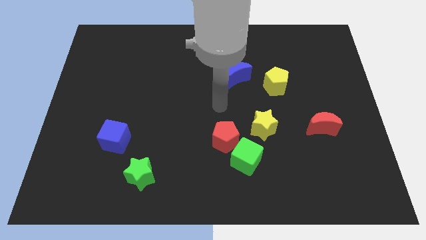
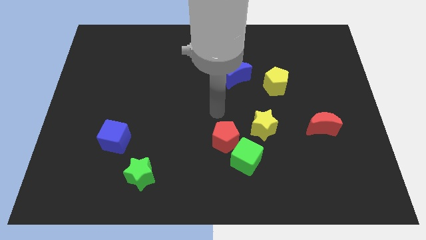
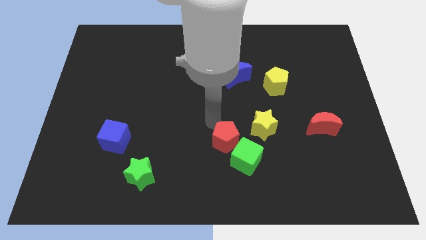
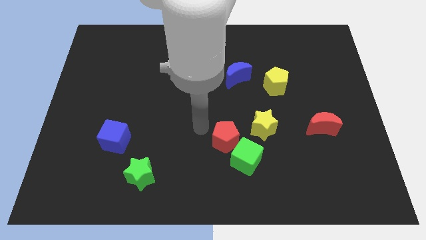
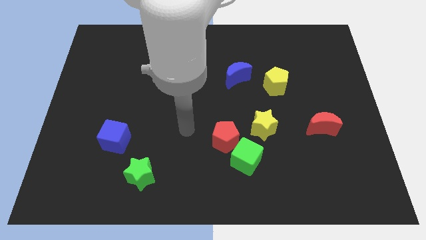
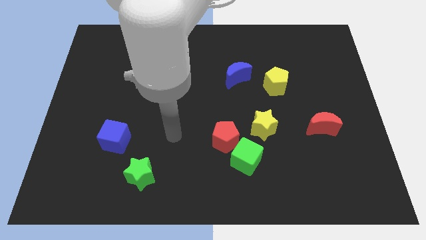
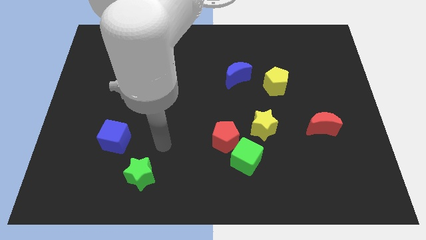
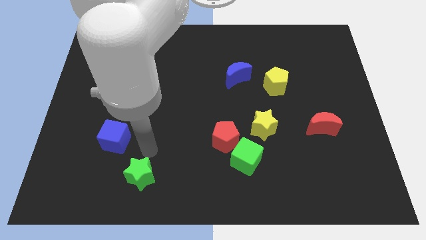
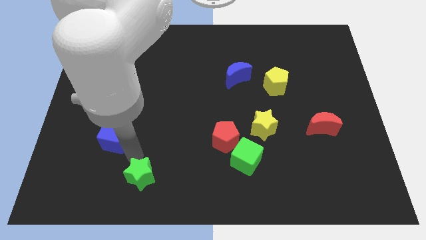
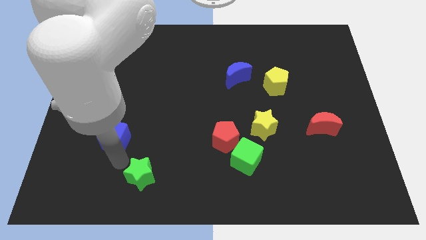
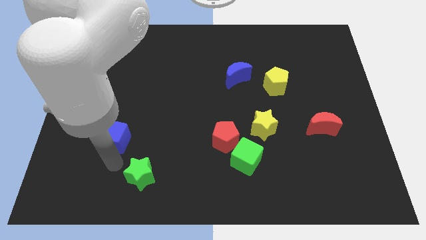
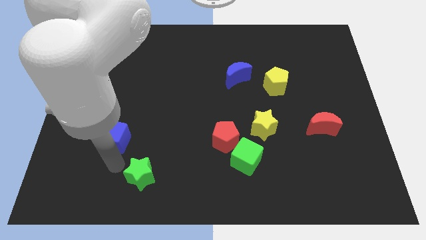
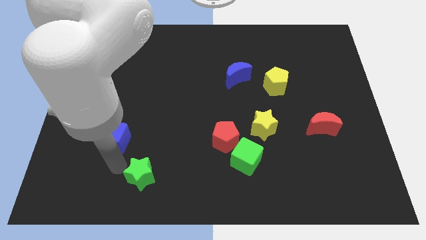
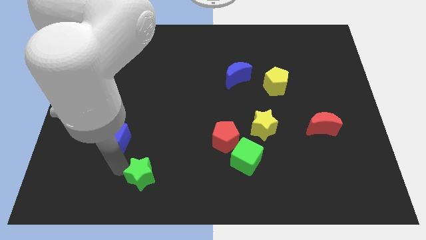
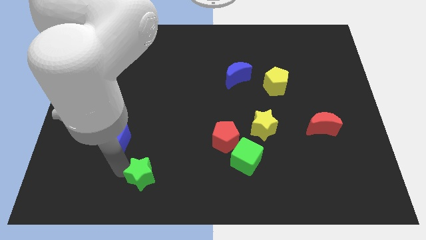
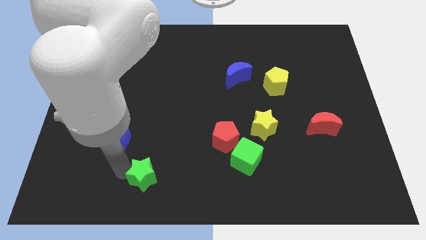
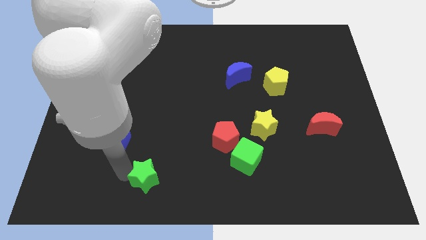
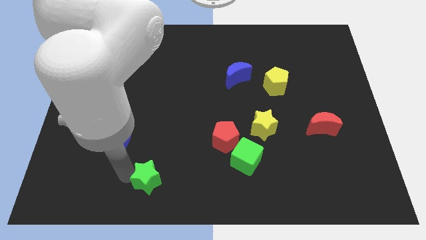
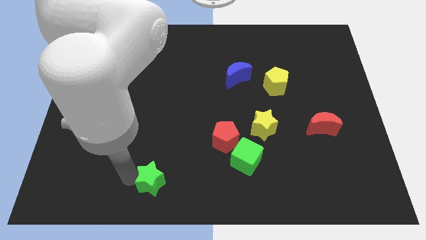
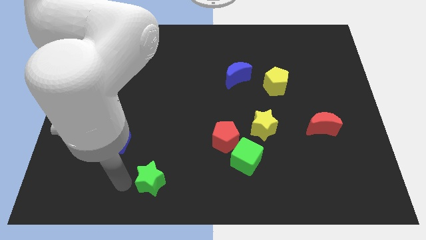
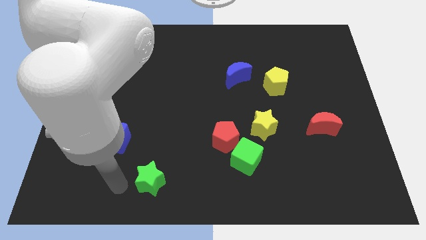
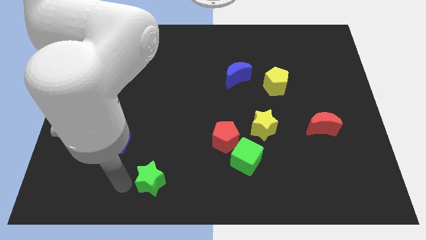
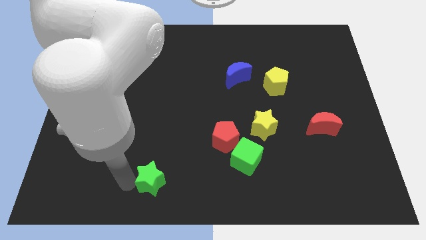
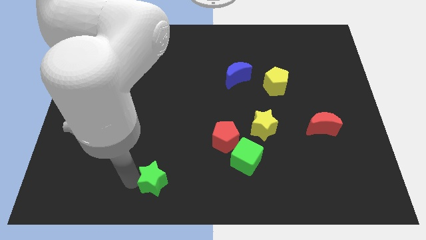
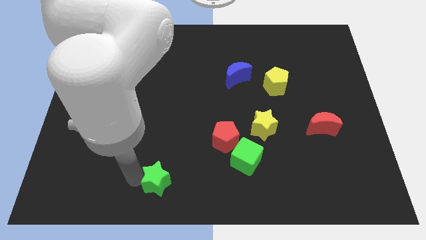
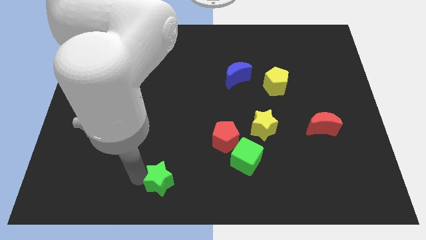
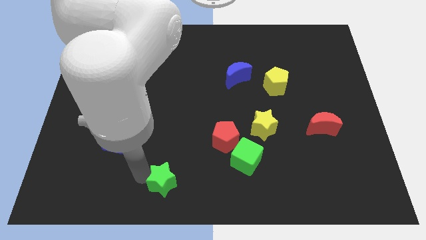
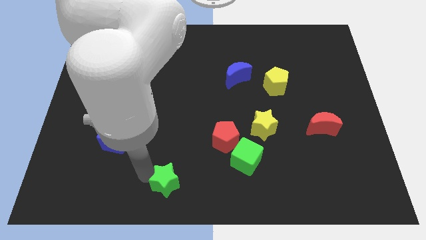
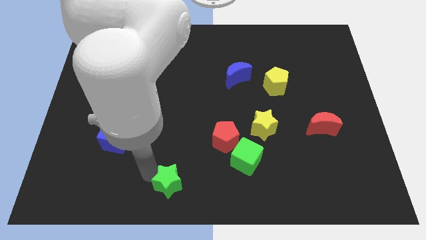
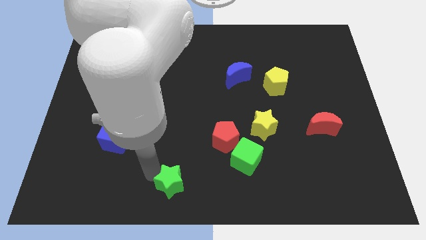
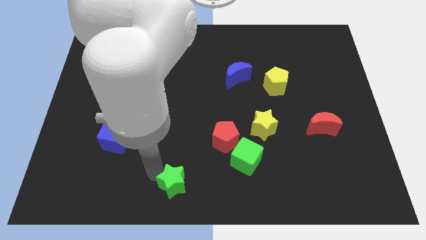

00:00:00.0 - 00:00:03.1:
push the green star to the right a little bit

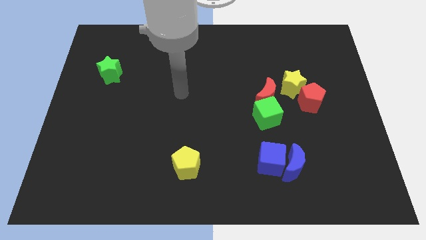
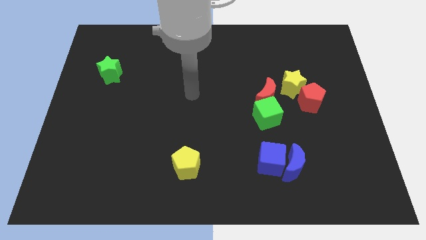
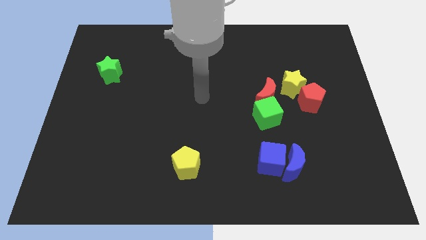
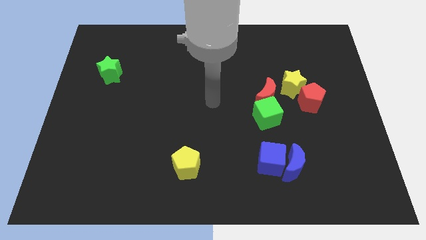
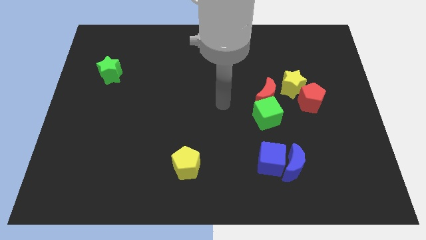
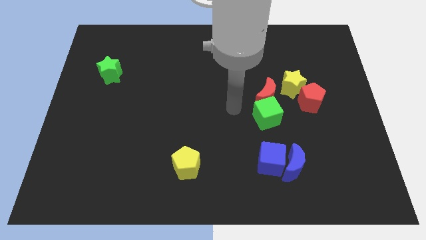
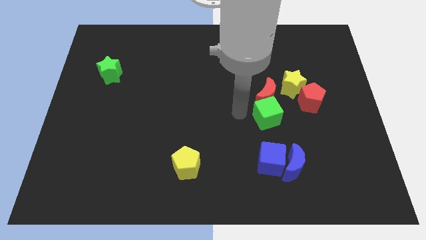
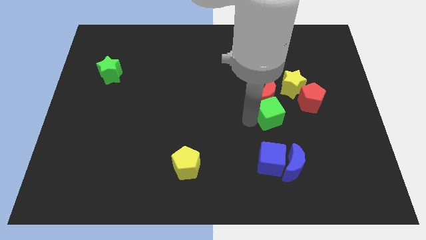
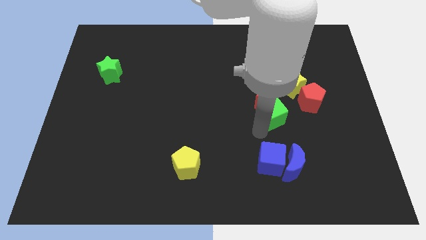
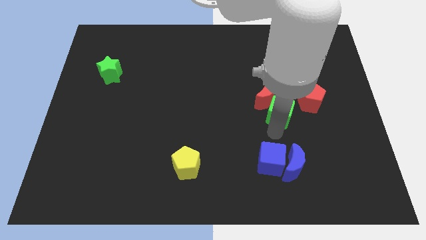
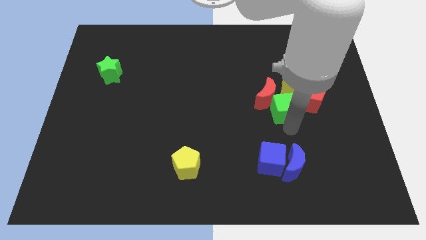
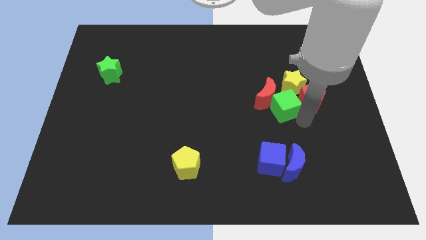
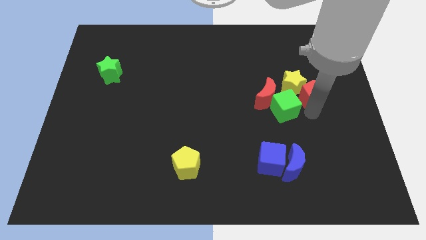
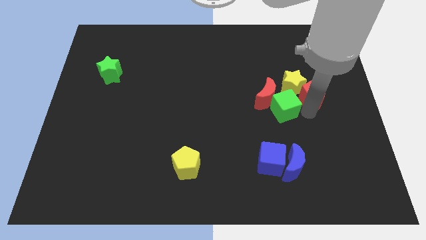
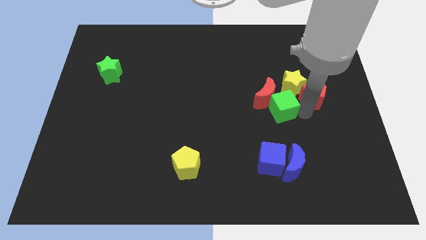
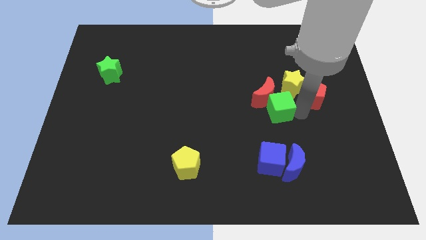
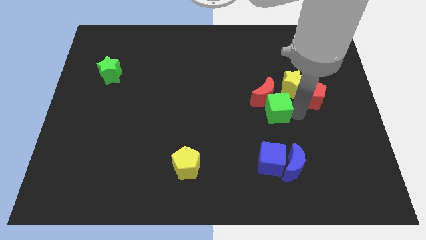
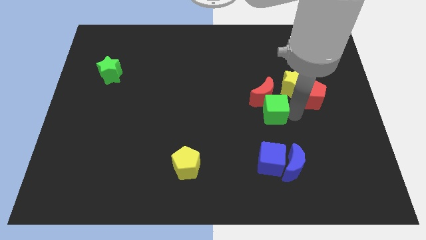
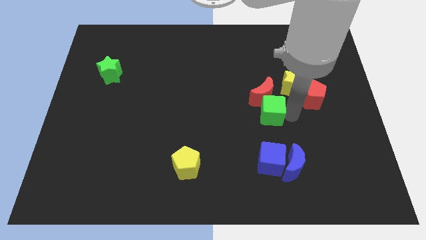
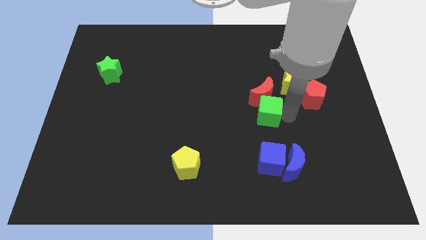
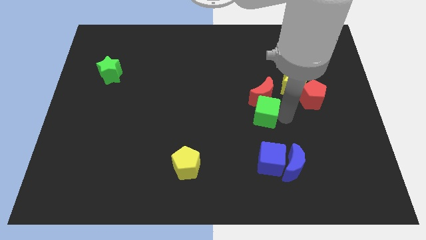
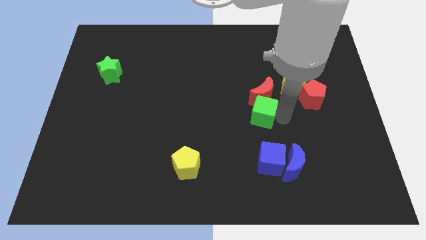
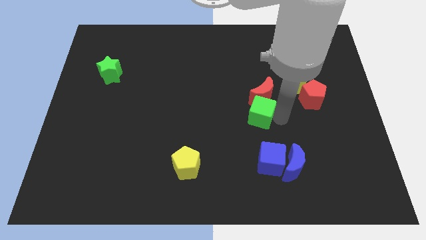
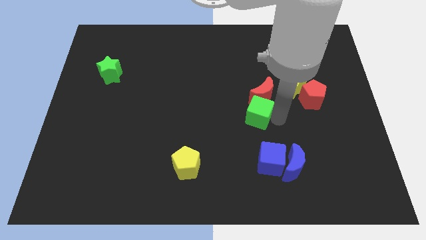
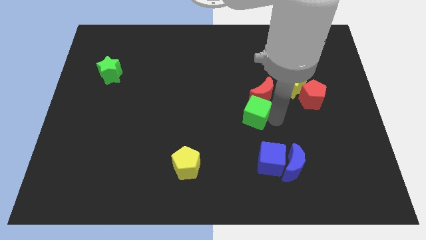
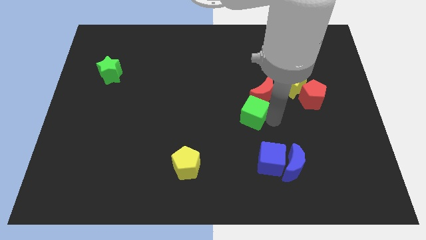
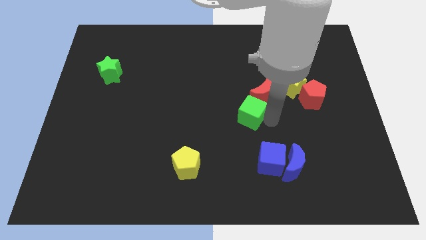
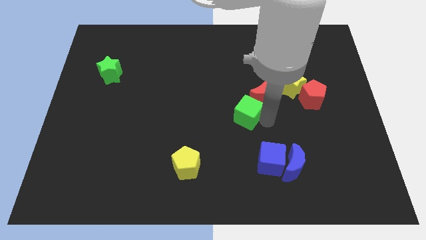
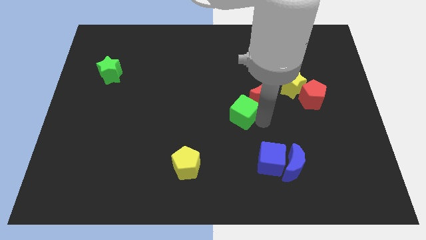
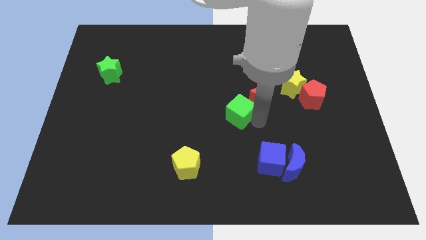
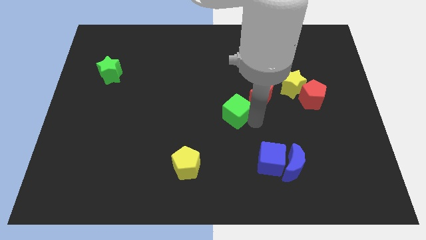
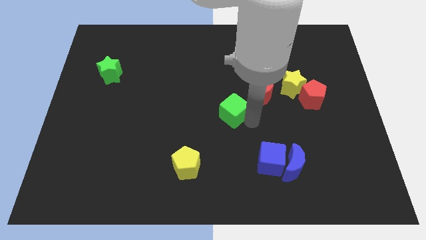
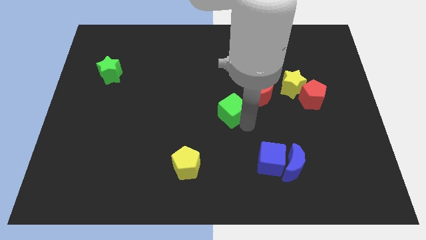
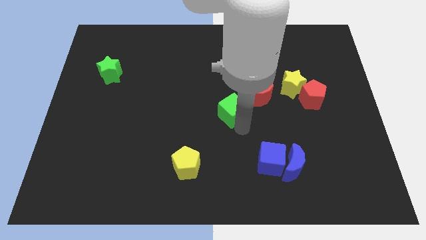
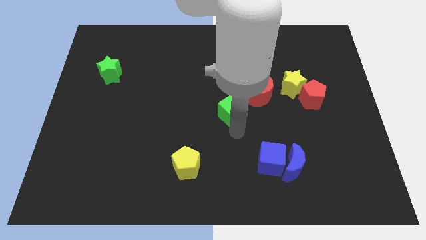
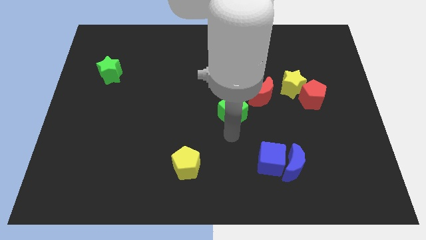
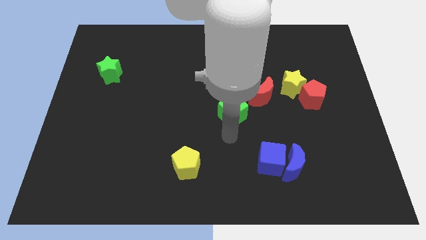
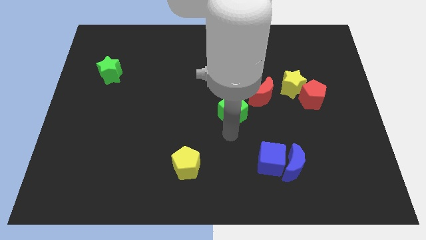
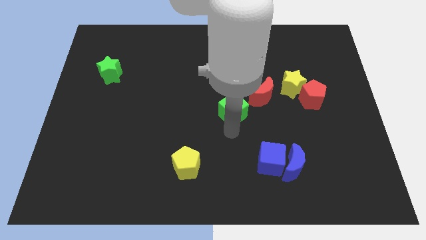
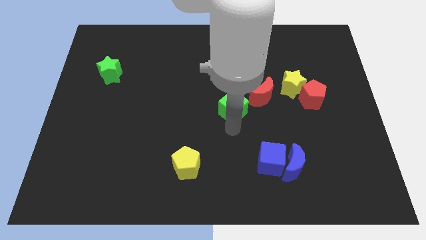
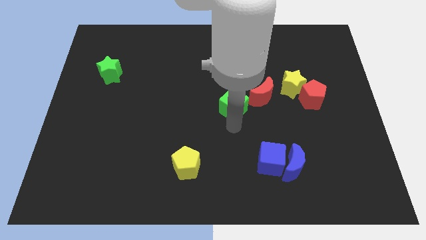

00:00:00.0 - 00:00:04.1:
push the green cube a little diagonally upwards and to the left

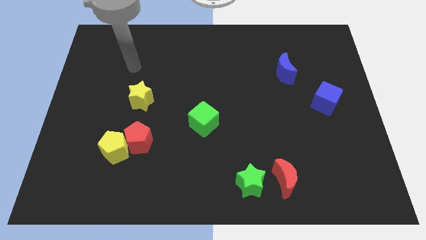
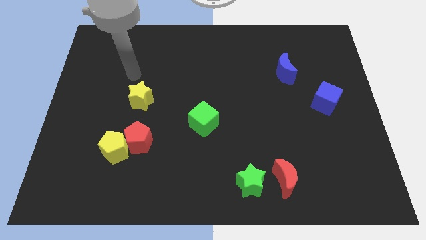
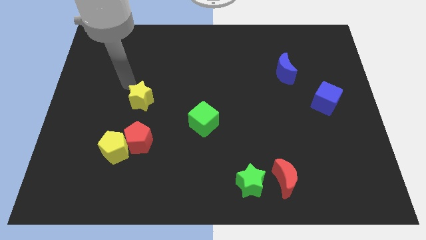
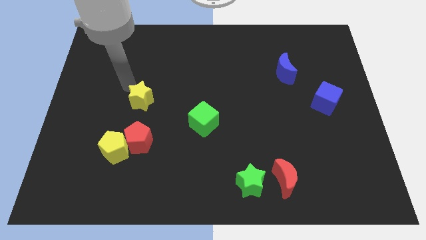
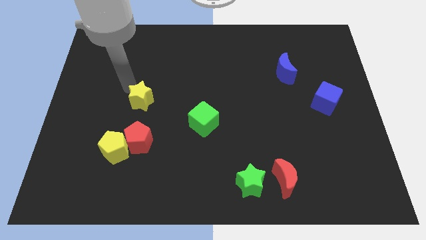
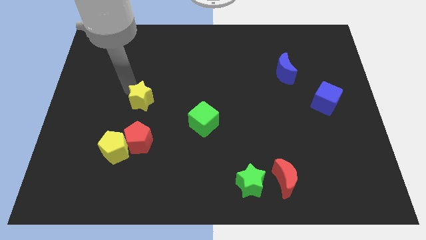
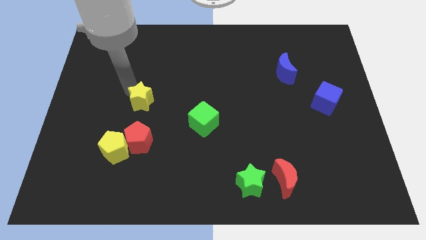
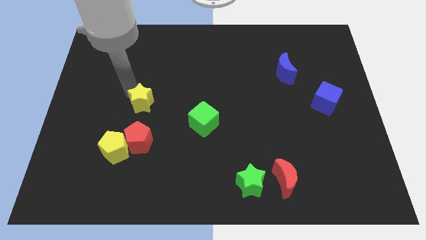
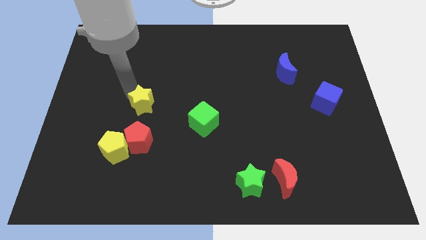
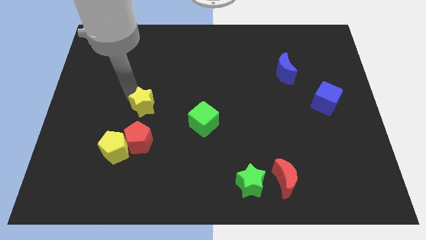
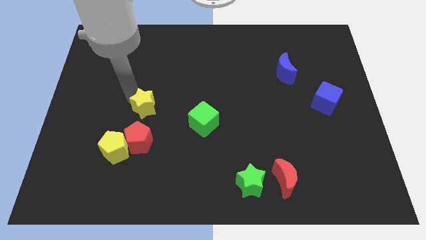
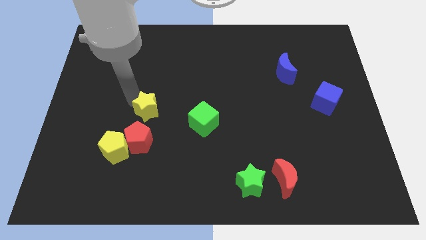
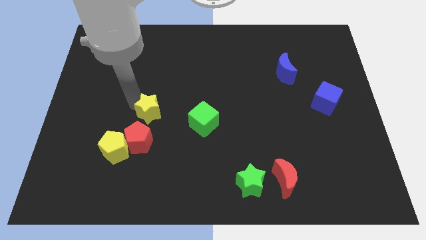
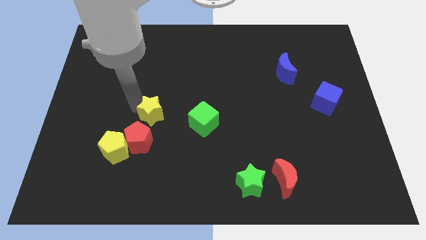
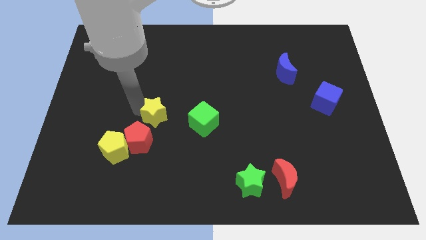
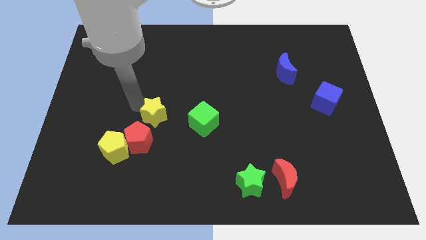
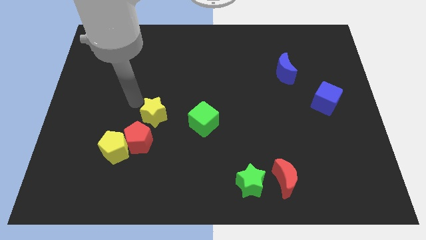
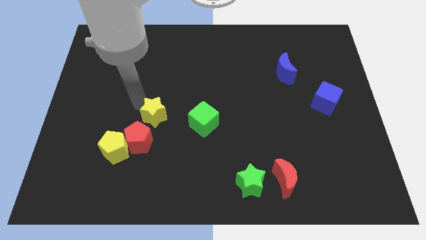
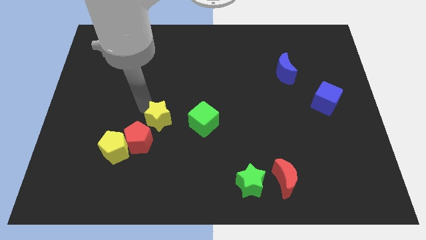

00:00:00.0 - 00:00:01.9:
slightly move the yellow star diagonally downwards and right
